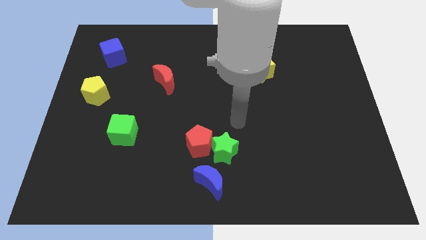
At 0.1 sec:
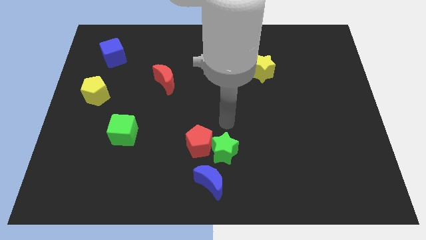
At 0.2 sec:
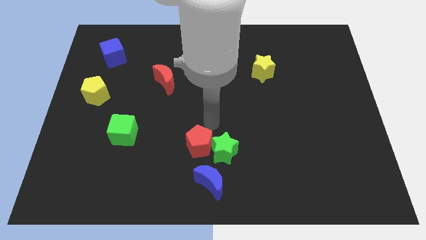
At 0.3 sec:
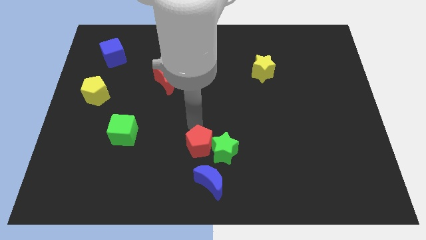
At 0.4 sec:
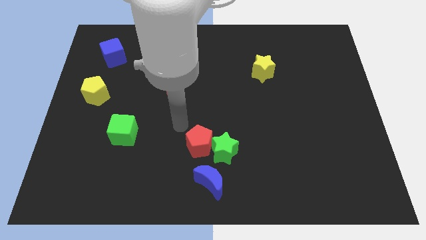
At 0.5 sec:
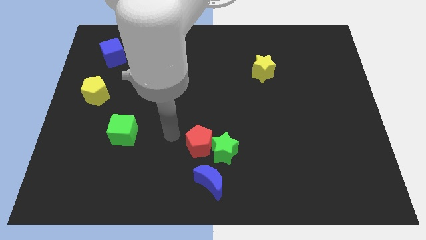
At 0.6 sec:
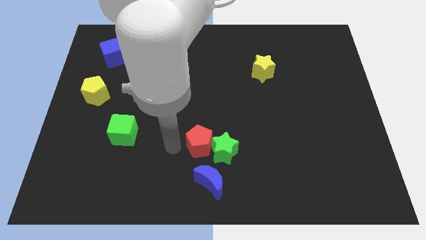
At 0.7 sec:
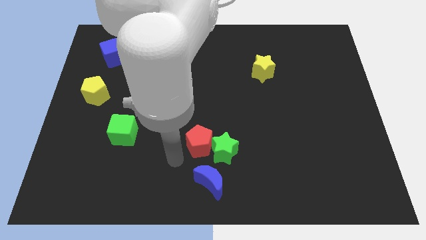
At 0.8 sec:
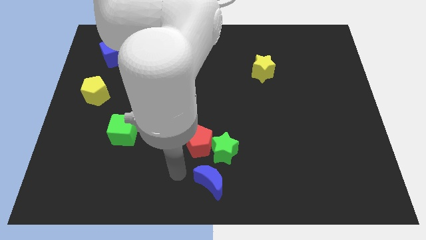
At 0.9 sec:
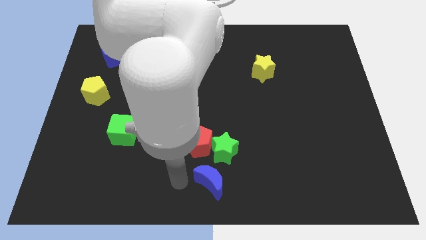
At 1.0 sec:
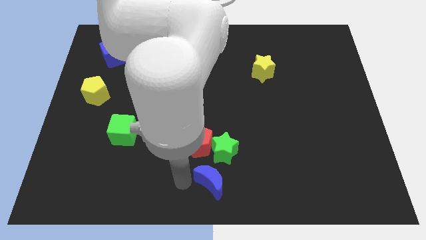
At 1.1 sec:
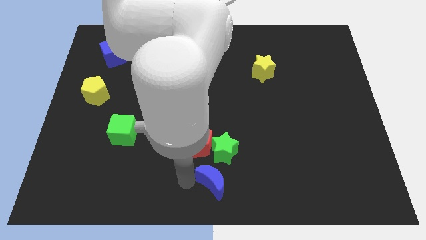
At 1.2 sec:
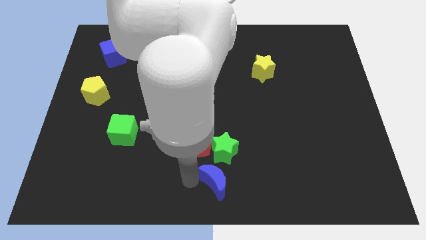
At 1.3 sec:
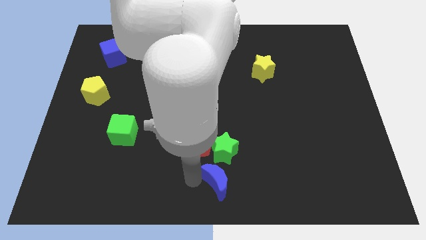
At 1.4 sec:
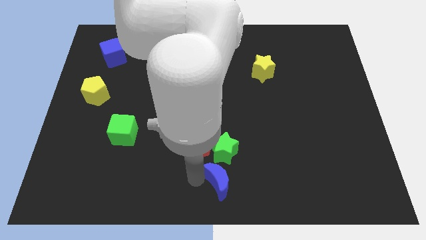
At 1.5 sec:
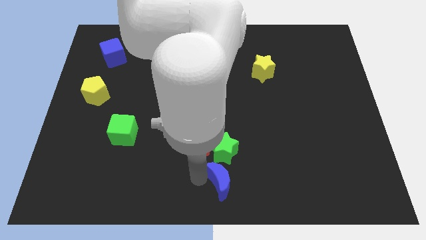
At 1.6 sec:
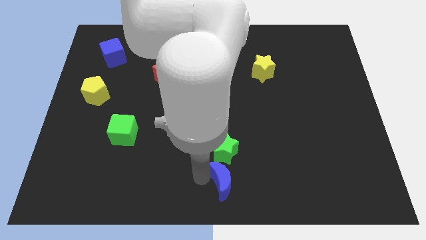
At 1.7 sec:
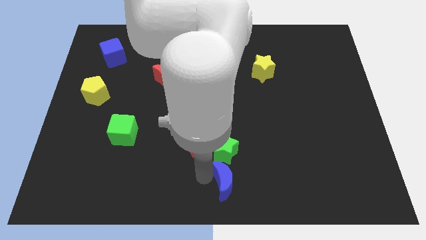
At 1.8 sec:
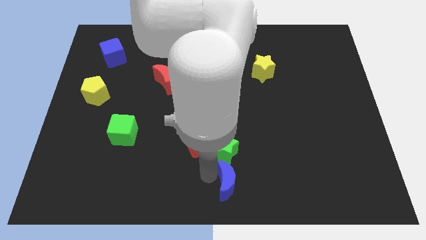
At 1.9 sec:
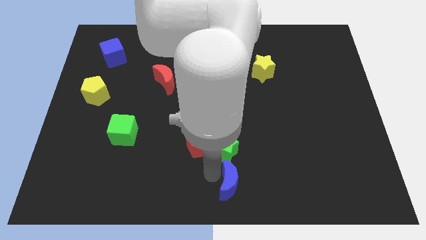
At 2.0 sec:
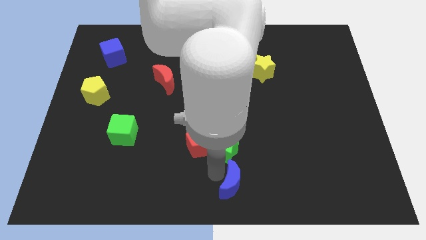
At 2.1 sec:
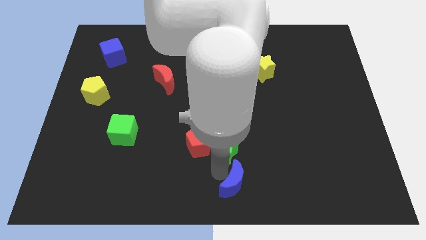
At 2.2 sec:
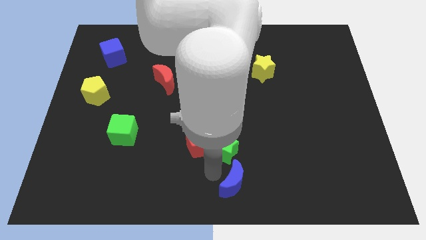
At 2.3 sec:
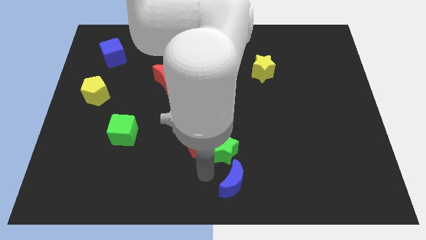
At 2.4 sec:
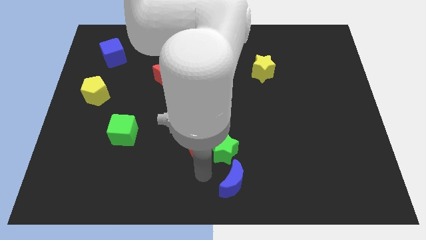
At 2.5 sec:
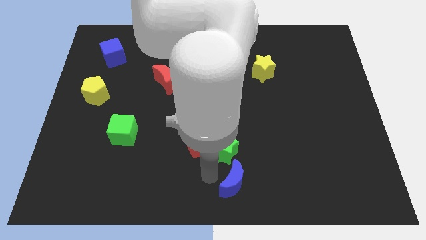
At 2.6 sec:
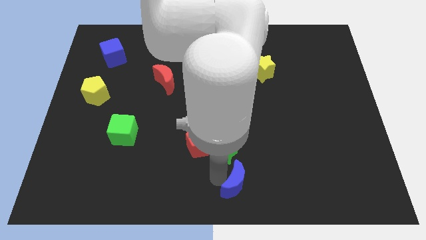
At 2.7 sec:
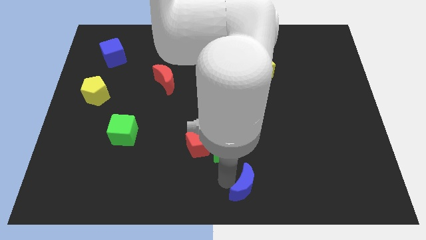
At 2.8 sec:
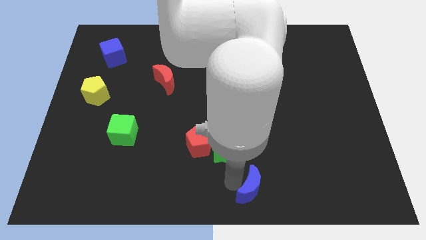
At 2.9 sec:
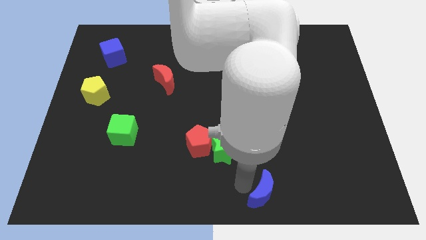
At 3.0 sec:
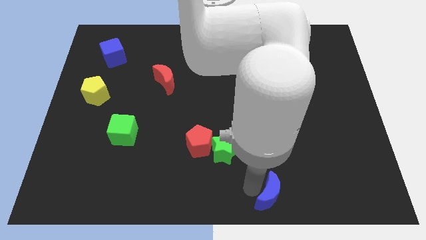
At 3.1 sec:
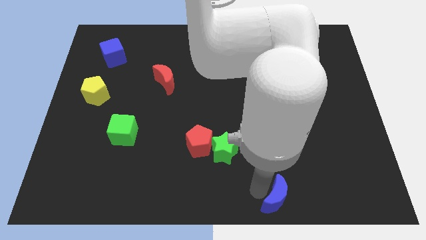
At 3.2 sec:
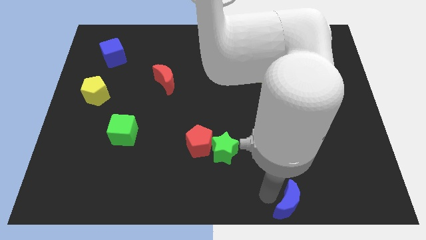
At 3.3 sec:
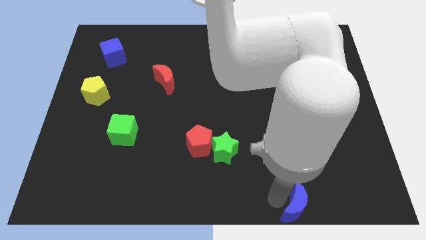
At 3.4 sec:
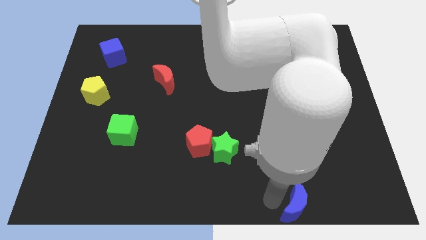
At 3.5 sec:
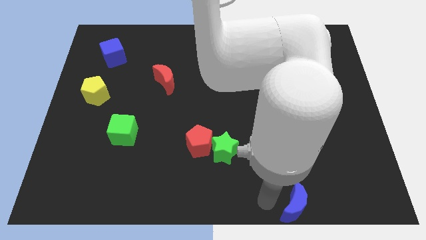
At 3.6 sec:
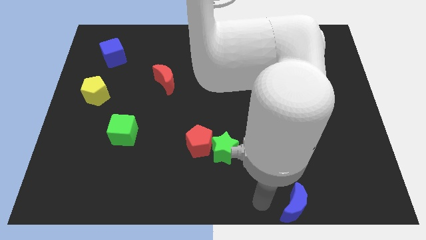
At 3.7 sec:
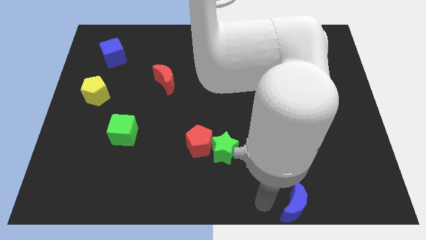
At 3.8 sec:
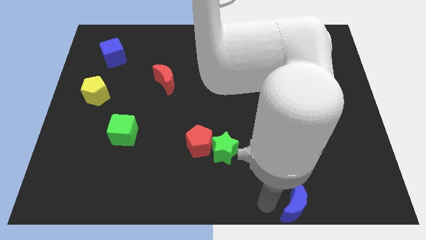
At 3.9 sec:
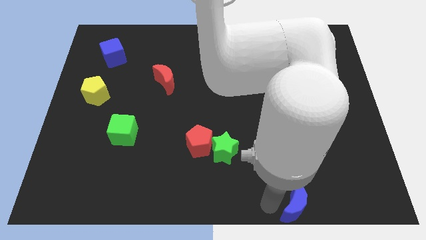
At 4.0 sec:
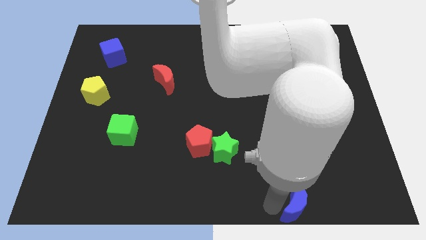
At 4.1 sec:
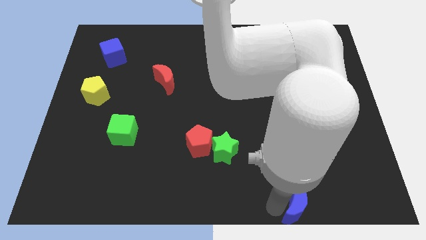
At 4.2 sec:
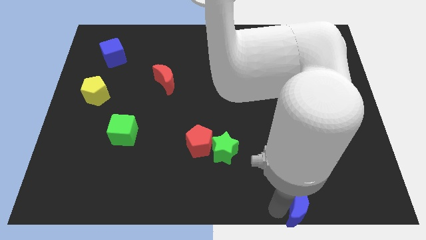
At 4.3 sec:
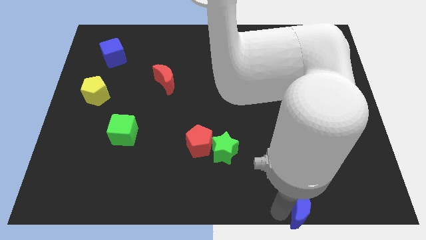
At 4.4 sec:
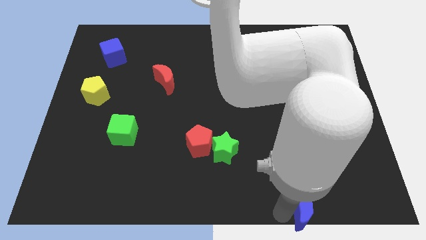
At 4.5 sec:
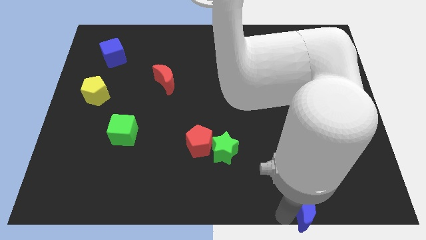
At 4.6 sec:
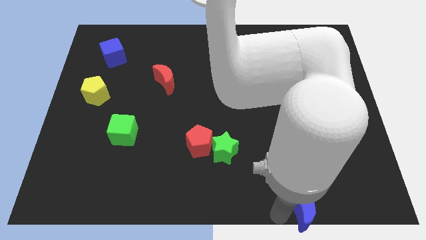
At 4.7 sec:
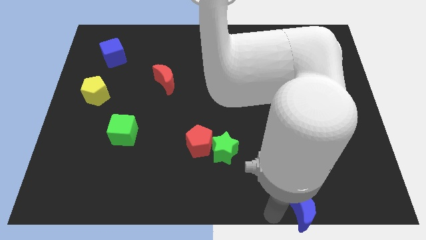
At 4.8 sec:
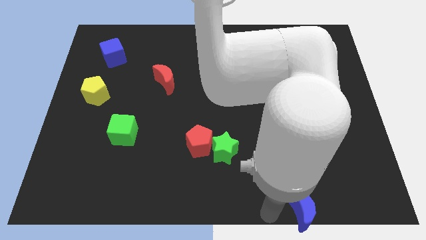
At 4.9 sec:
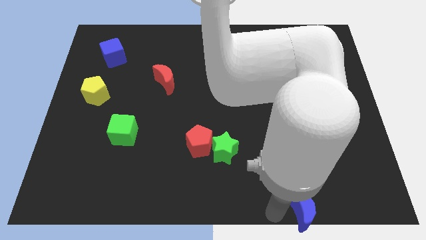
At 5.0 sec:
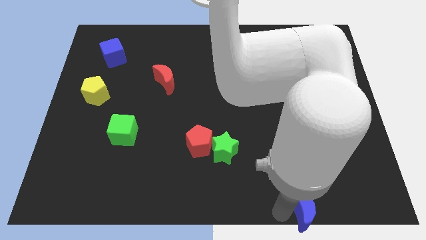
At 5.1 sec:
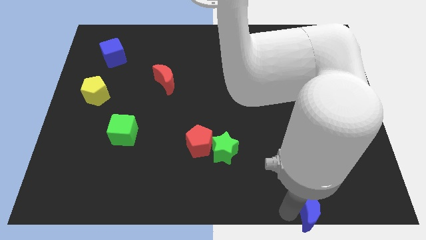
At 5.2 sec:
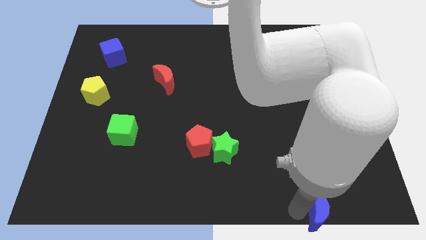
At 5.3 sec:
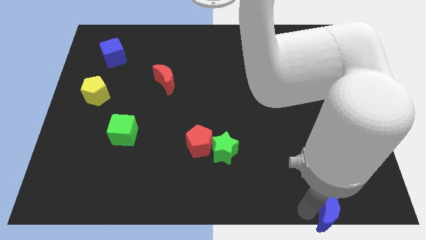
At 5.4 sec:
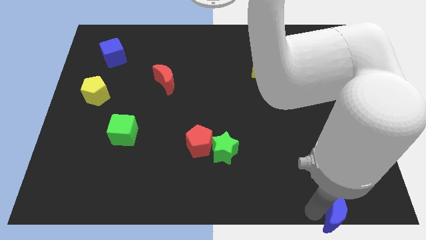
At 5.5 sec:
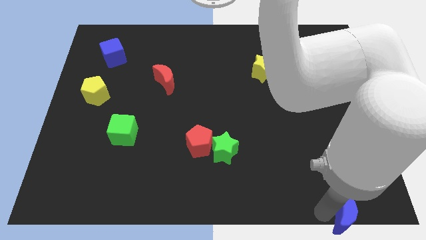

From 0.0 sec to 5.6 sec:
put the blue moon to the bottom right

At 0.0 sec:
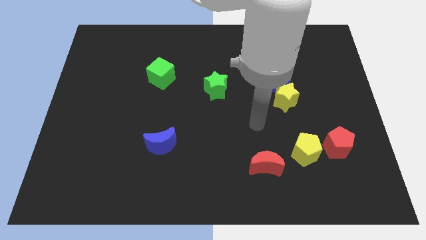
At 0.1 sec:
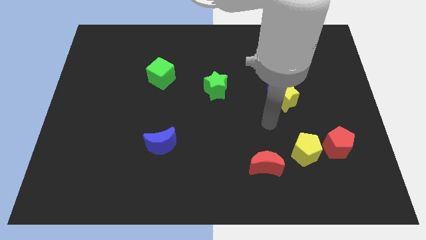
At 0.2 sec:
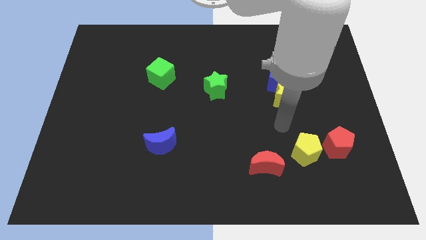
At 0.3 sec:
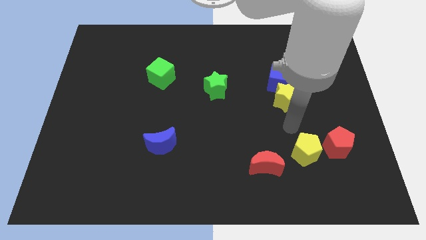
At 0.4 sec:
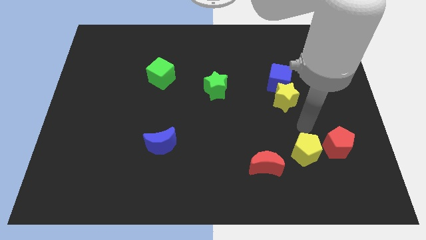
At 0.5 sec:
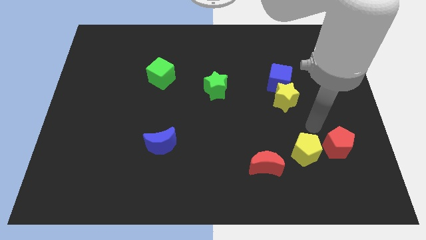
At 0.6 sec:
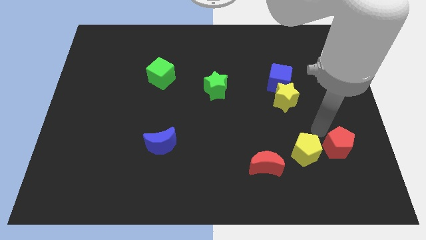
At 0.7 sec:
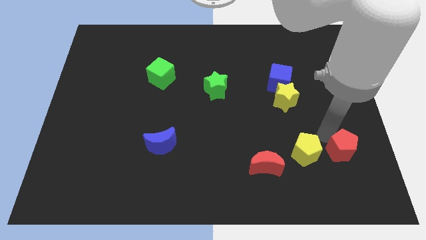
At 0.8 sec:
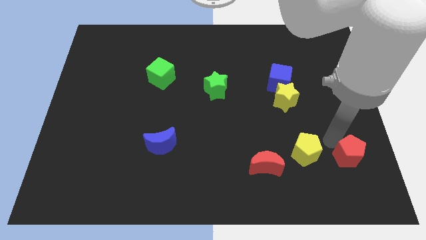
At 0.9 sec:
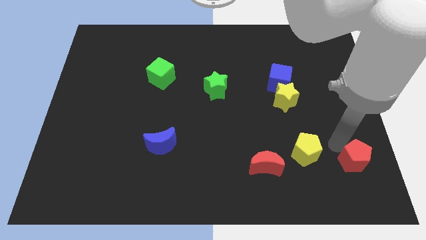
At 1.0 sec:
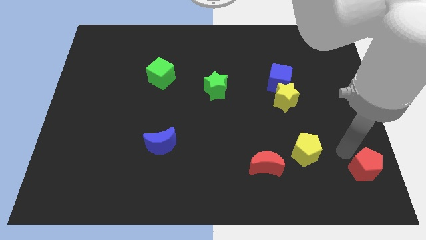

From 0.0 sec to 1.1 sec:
push the red pentagon to the bottom right of the board
